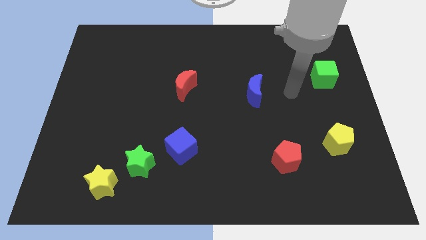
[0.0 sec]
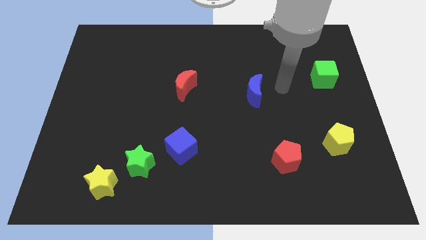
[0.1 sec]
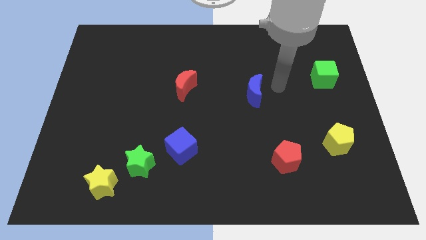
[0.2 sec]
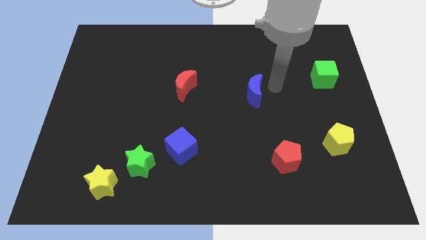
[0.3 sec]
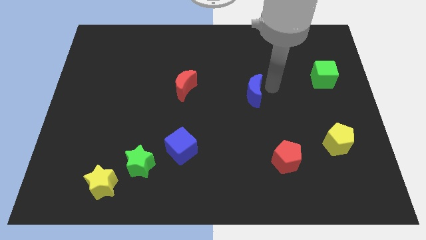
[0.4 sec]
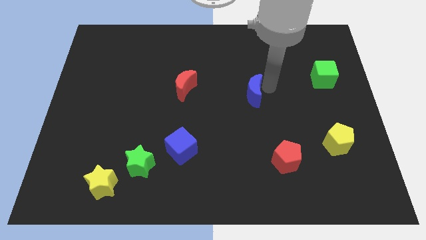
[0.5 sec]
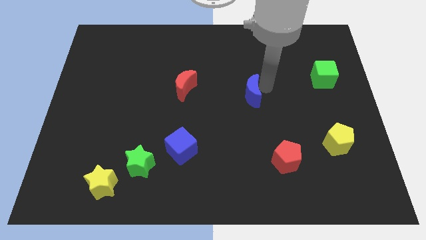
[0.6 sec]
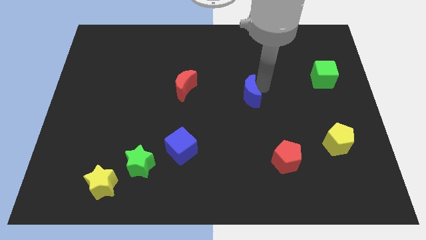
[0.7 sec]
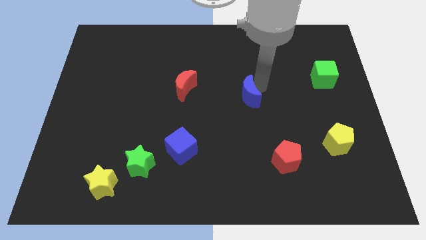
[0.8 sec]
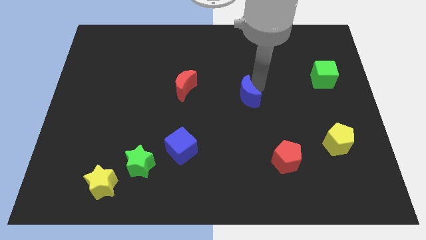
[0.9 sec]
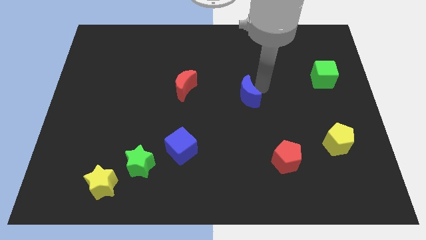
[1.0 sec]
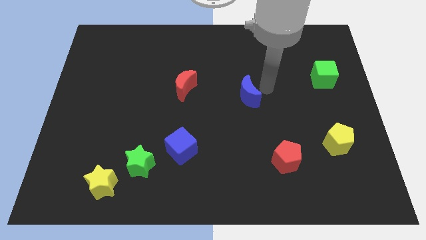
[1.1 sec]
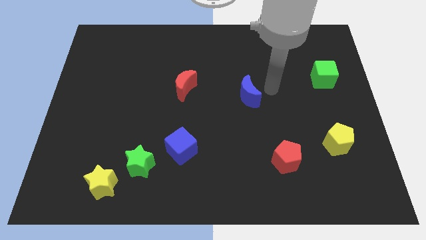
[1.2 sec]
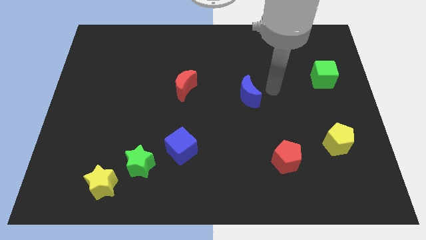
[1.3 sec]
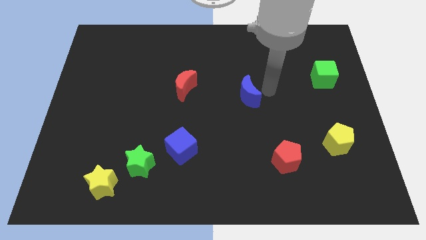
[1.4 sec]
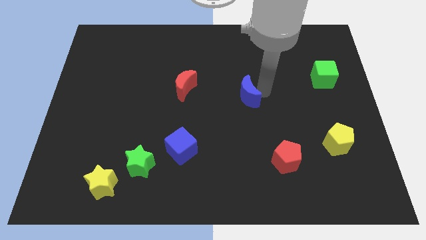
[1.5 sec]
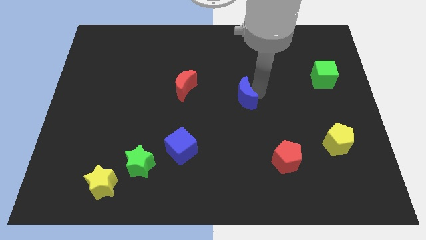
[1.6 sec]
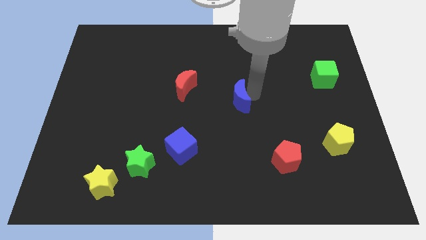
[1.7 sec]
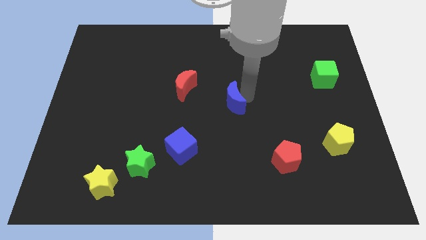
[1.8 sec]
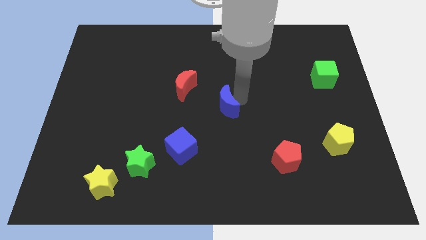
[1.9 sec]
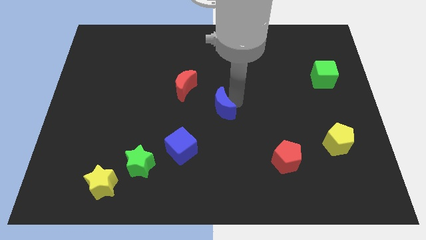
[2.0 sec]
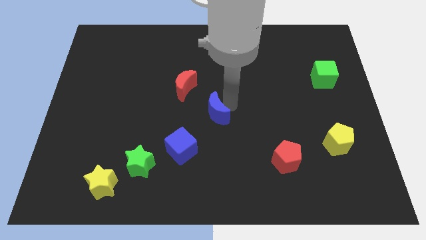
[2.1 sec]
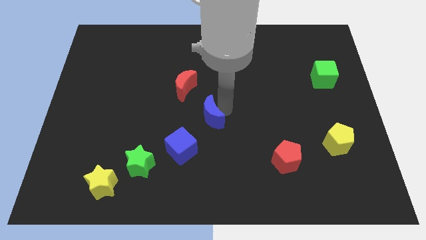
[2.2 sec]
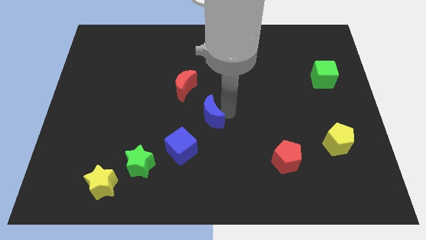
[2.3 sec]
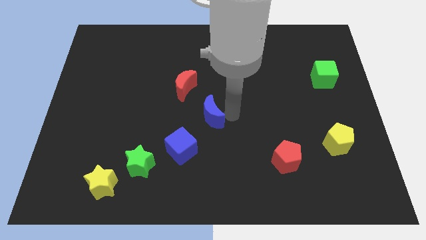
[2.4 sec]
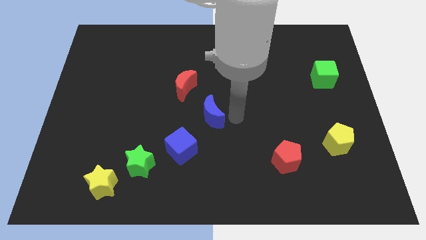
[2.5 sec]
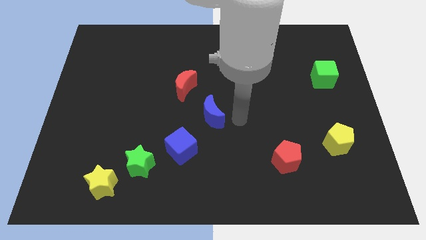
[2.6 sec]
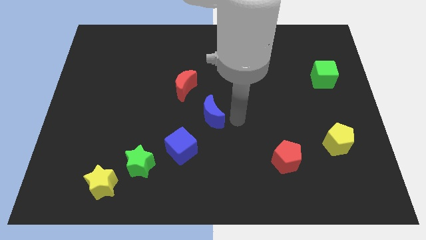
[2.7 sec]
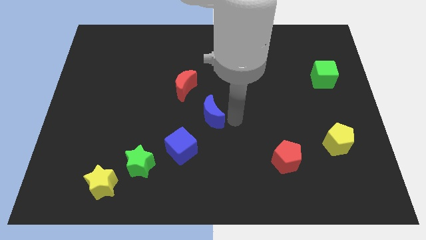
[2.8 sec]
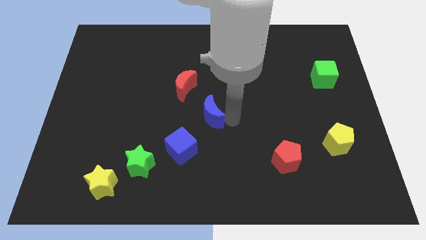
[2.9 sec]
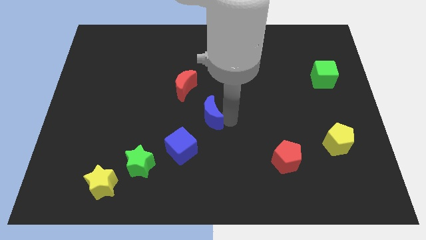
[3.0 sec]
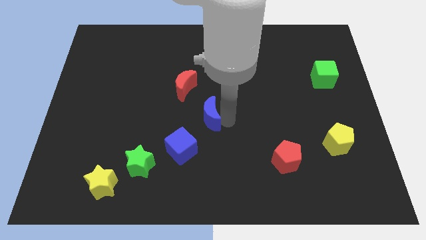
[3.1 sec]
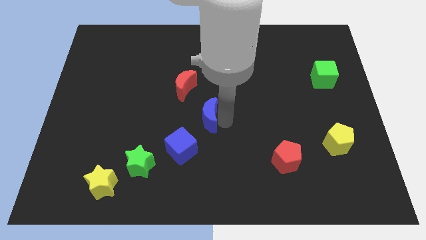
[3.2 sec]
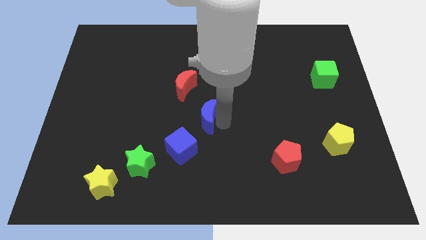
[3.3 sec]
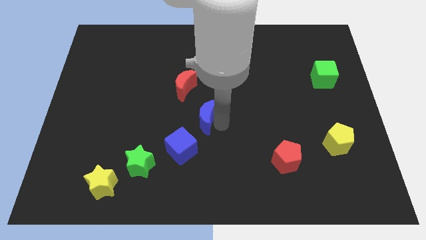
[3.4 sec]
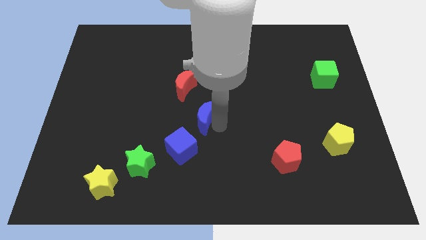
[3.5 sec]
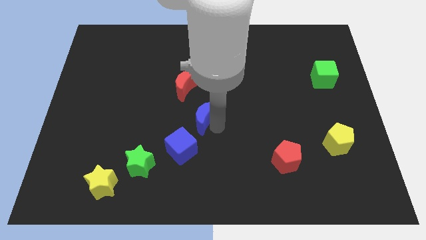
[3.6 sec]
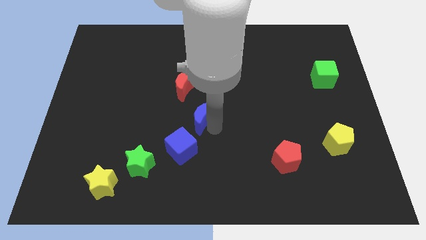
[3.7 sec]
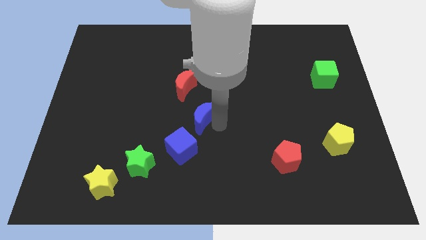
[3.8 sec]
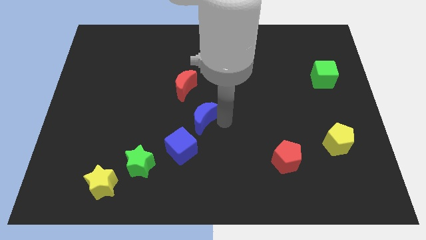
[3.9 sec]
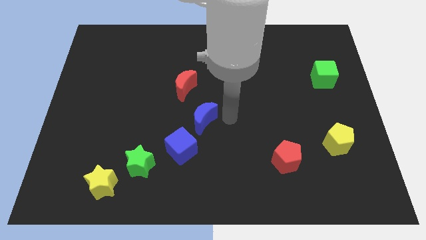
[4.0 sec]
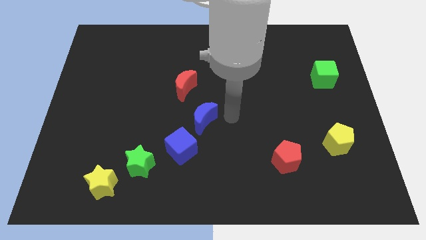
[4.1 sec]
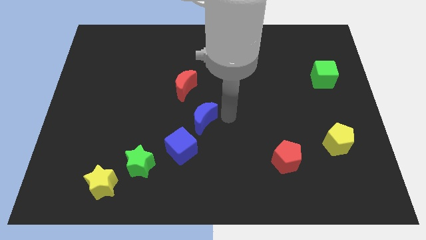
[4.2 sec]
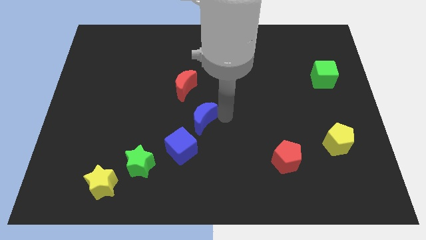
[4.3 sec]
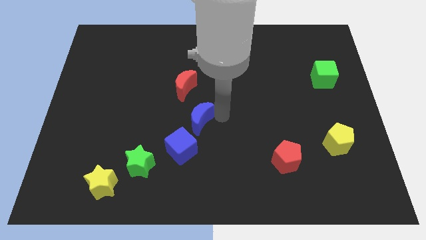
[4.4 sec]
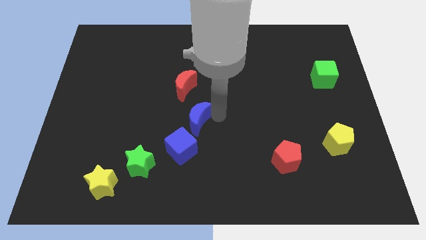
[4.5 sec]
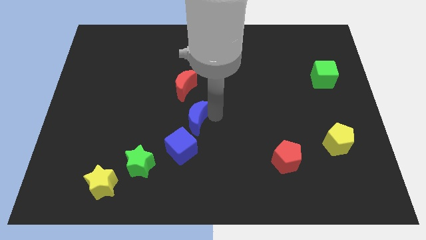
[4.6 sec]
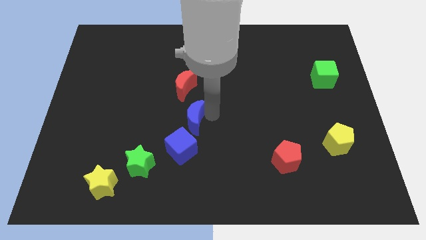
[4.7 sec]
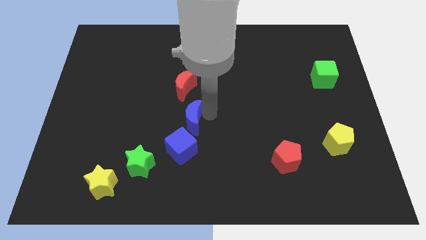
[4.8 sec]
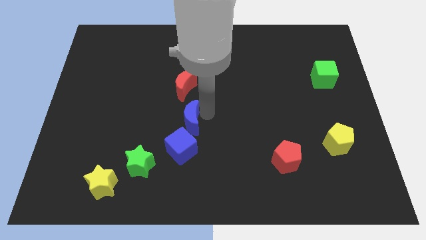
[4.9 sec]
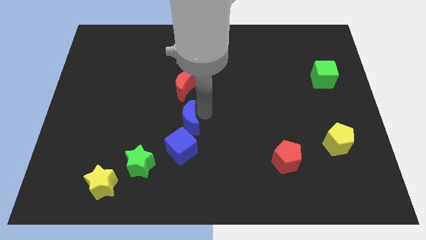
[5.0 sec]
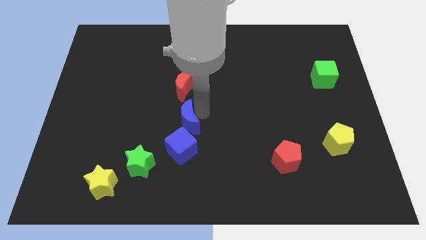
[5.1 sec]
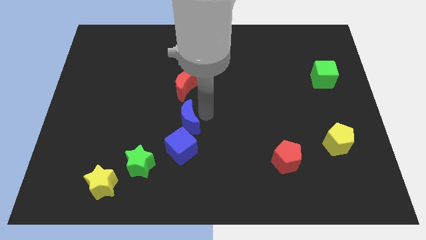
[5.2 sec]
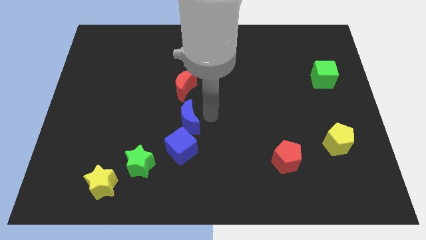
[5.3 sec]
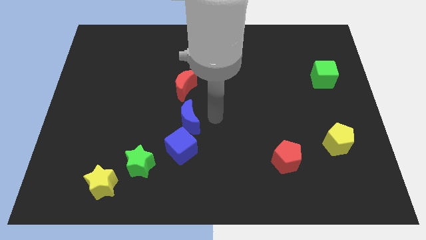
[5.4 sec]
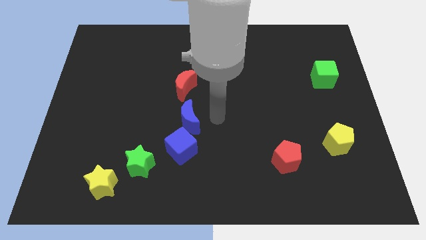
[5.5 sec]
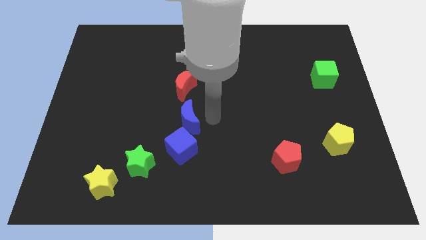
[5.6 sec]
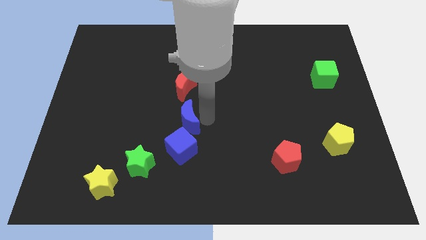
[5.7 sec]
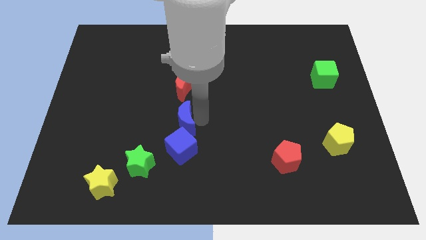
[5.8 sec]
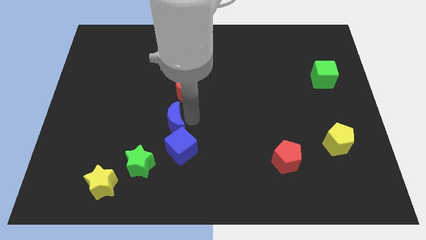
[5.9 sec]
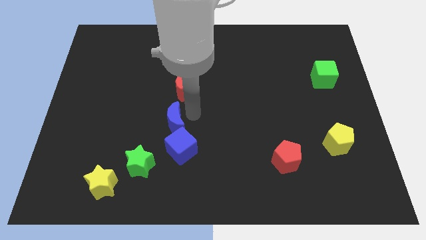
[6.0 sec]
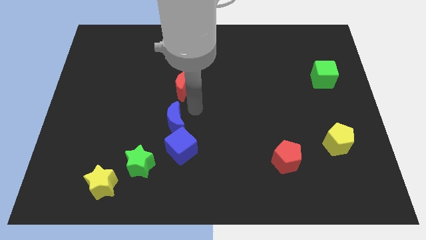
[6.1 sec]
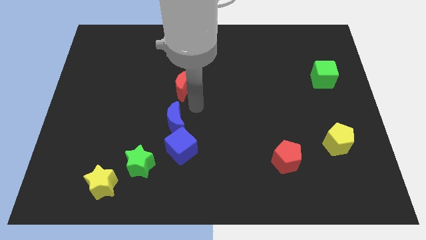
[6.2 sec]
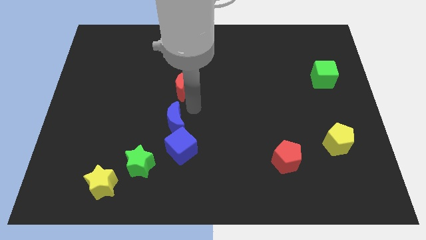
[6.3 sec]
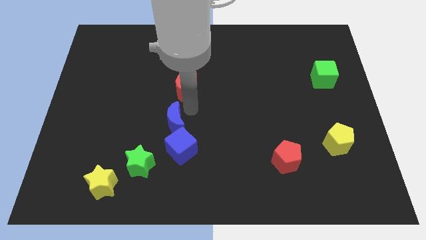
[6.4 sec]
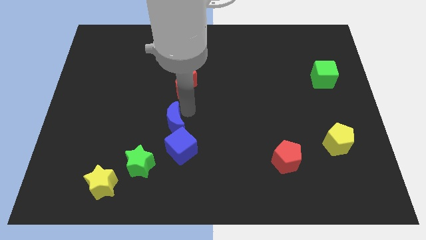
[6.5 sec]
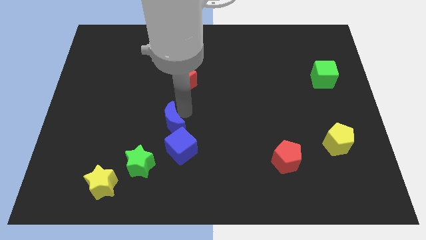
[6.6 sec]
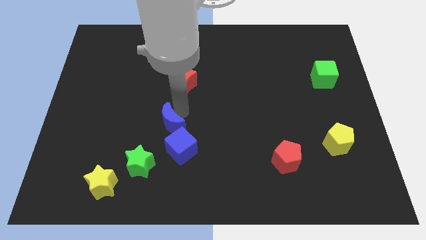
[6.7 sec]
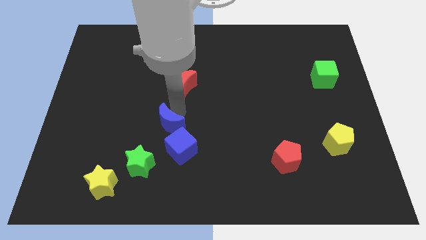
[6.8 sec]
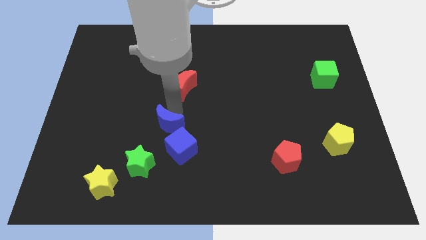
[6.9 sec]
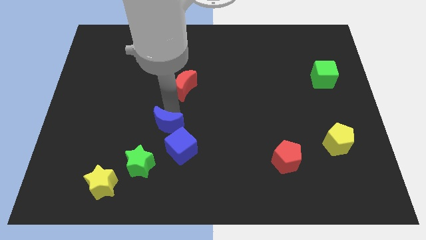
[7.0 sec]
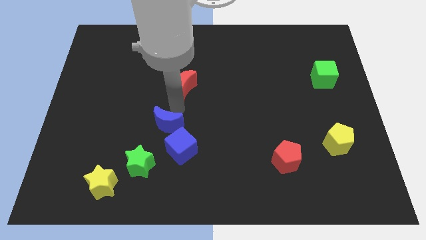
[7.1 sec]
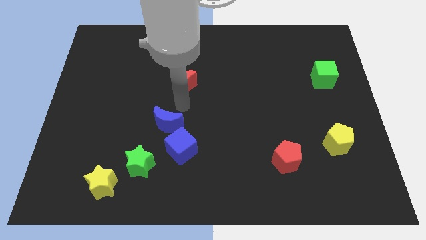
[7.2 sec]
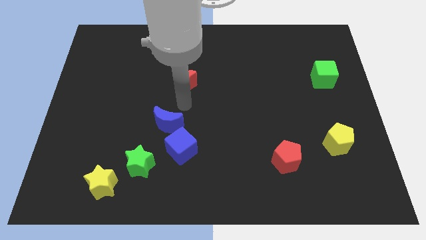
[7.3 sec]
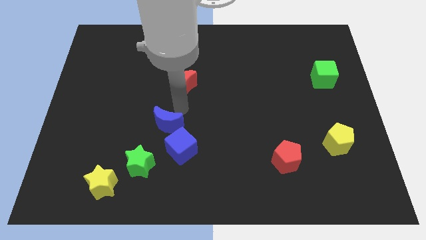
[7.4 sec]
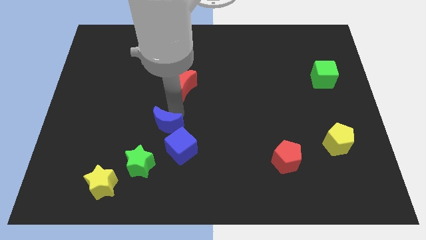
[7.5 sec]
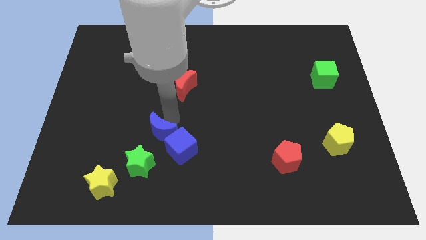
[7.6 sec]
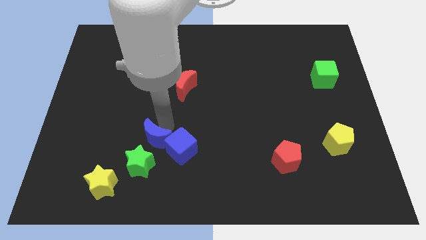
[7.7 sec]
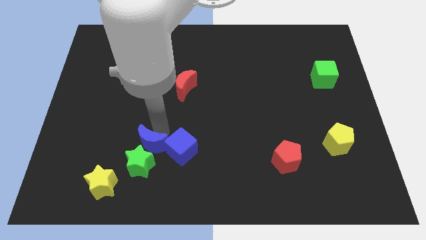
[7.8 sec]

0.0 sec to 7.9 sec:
push the blue moon next to the green star
